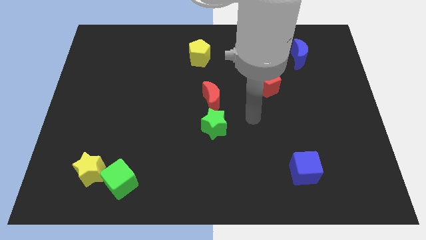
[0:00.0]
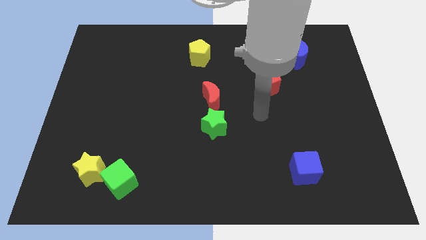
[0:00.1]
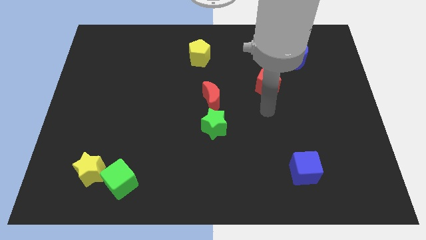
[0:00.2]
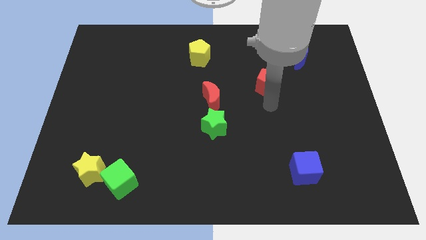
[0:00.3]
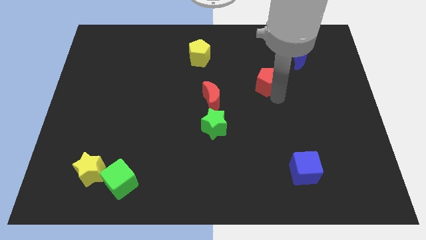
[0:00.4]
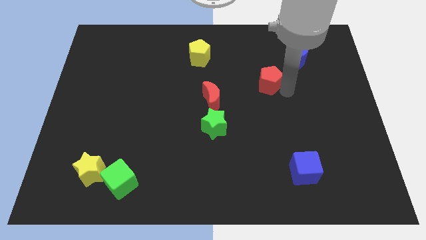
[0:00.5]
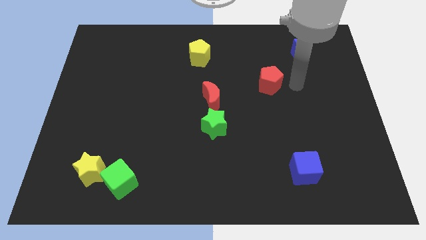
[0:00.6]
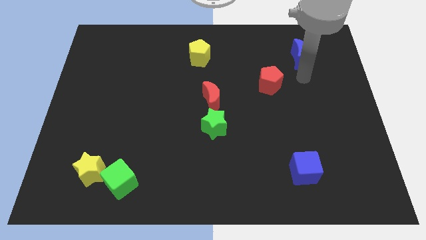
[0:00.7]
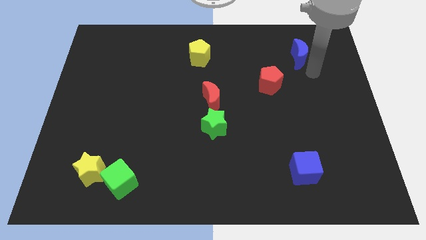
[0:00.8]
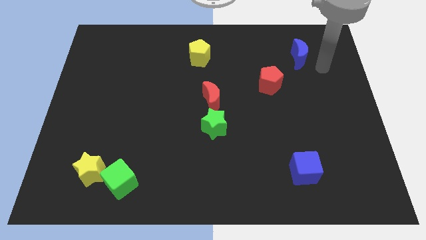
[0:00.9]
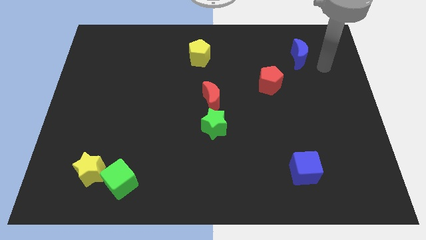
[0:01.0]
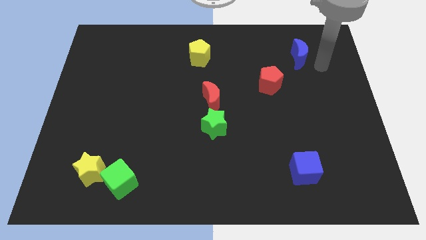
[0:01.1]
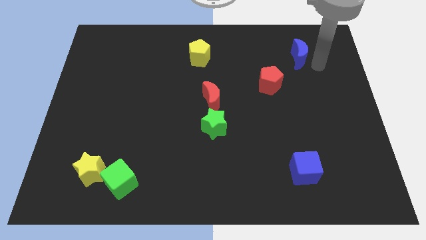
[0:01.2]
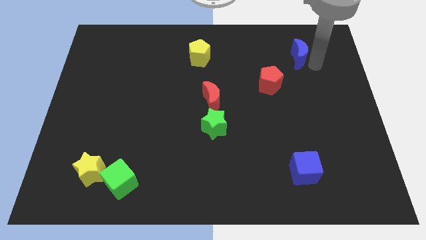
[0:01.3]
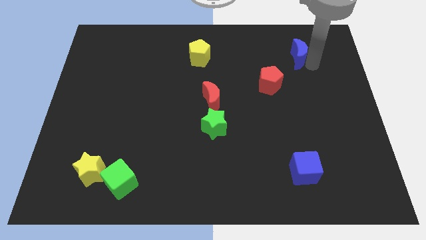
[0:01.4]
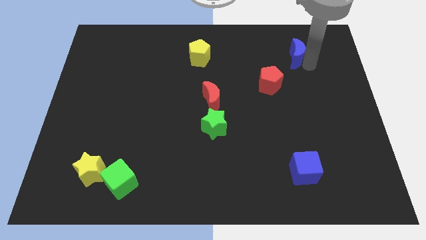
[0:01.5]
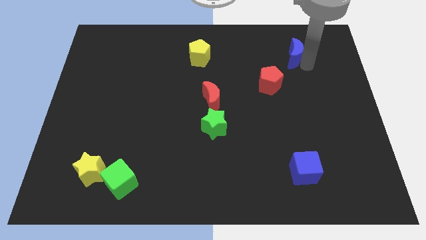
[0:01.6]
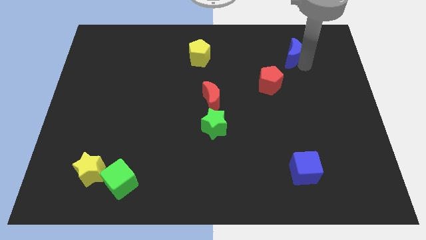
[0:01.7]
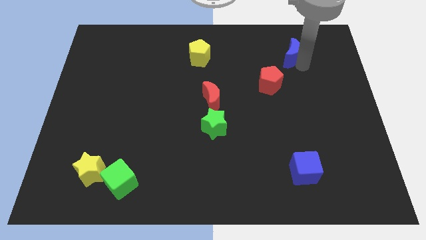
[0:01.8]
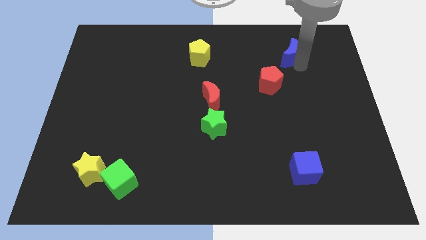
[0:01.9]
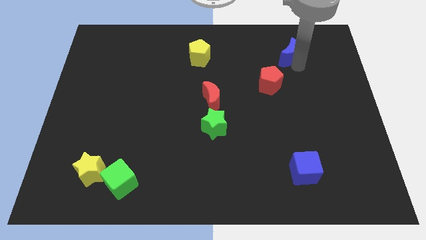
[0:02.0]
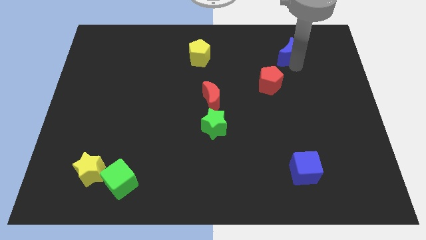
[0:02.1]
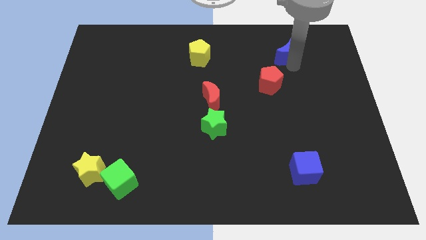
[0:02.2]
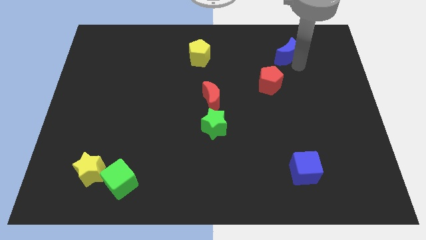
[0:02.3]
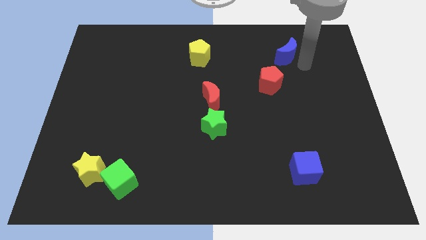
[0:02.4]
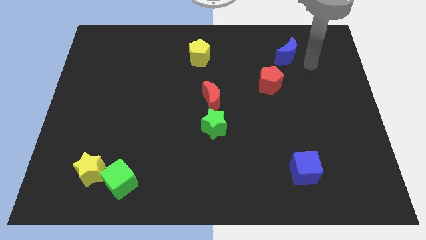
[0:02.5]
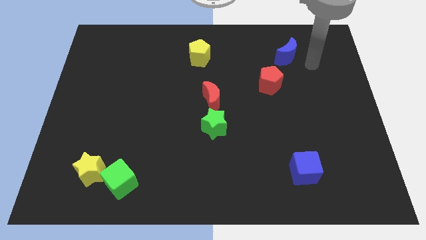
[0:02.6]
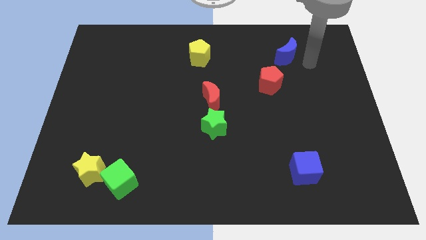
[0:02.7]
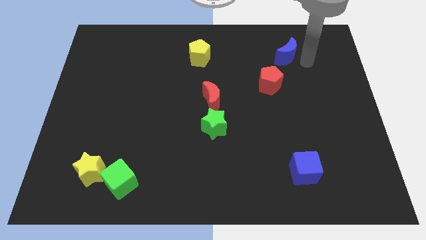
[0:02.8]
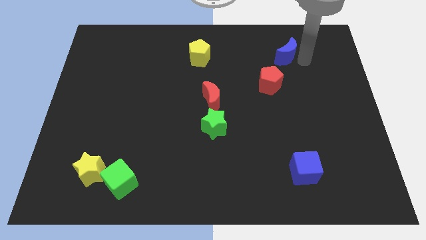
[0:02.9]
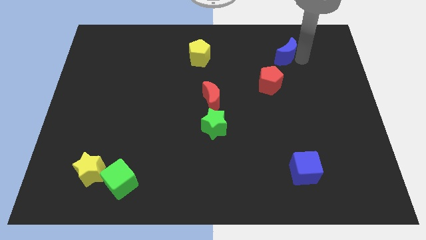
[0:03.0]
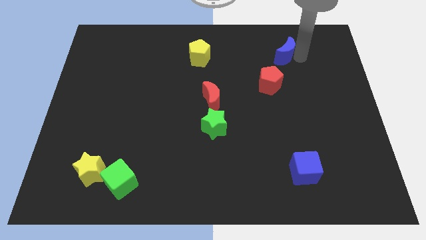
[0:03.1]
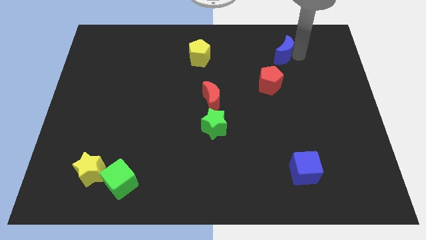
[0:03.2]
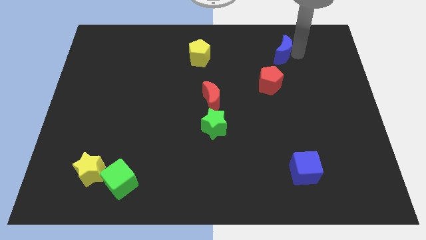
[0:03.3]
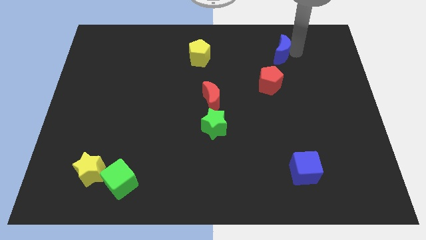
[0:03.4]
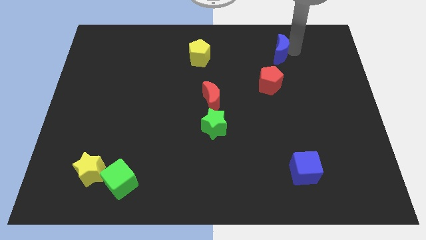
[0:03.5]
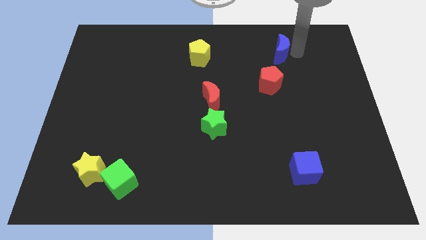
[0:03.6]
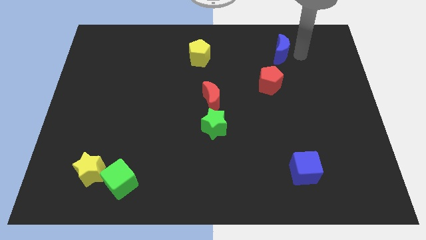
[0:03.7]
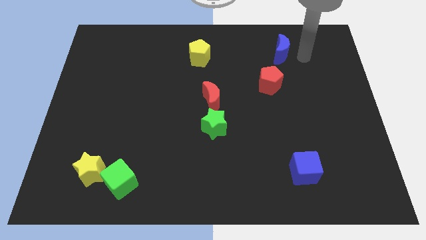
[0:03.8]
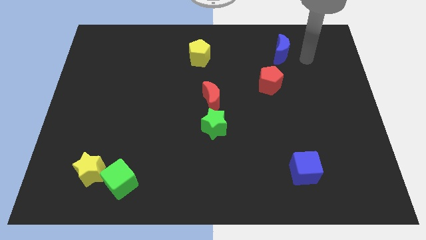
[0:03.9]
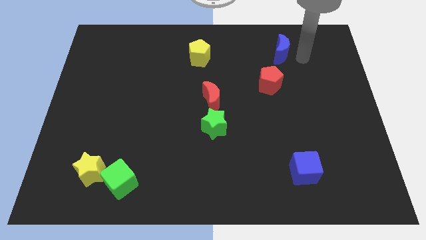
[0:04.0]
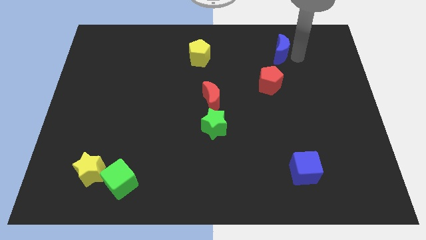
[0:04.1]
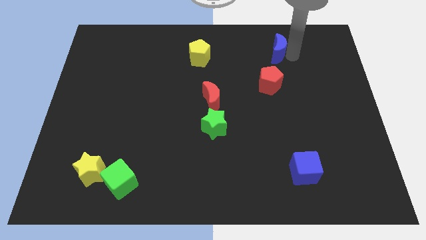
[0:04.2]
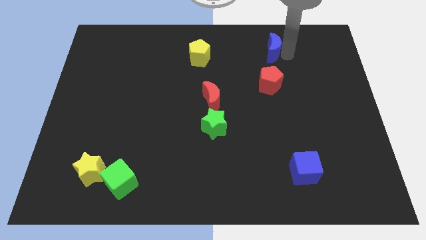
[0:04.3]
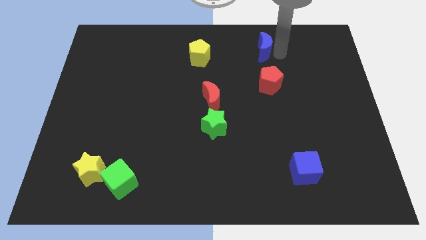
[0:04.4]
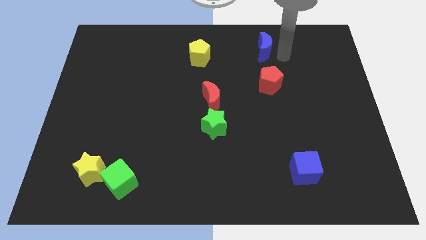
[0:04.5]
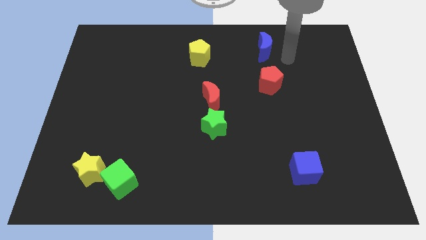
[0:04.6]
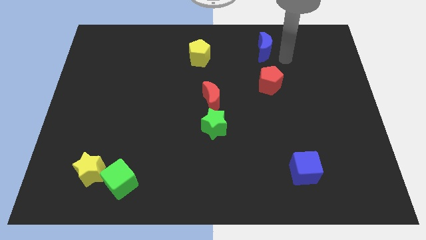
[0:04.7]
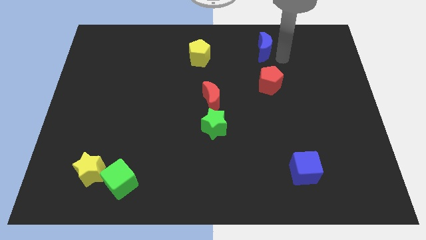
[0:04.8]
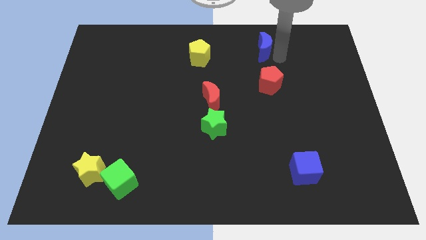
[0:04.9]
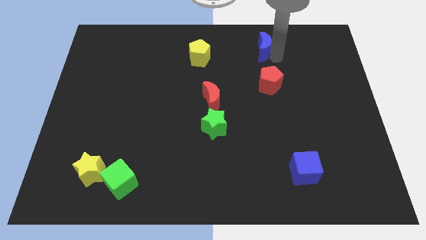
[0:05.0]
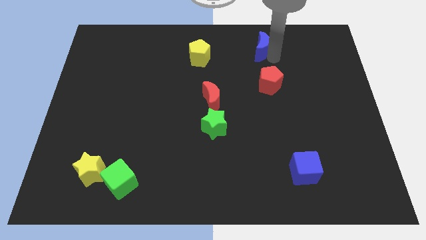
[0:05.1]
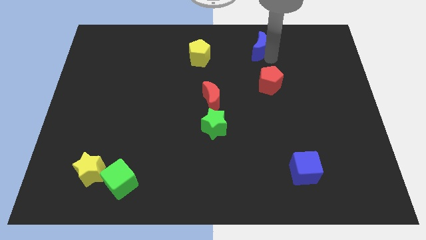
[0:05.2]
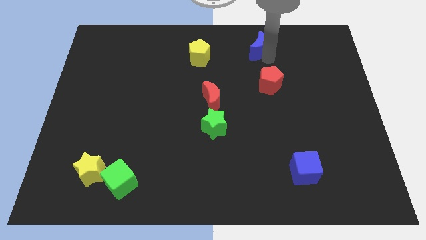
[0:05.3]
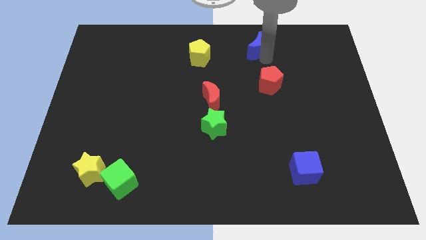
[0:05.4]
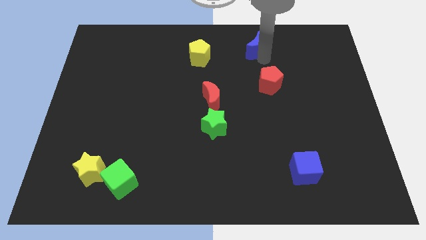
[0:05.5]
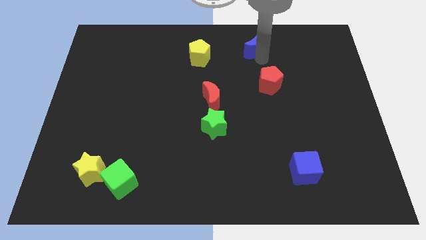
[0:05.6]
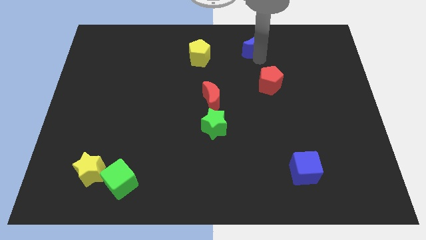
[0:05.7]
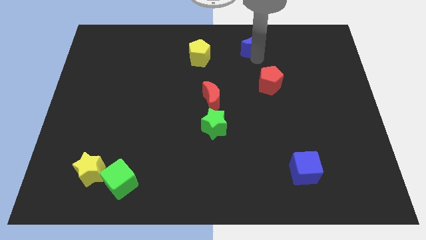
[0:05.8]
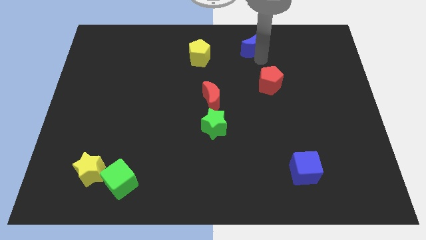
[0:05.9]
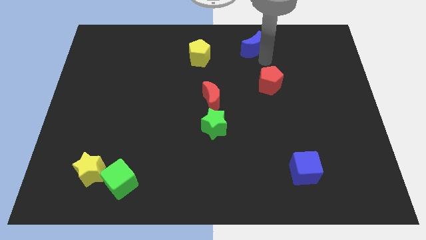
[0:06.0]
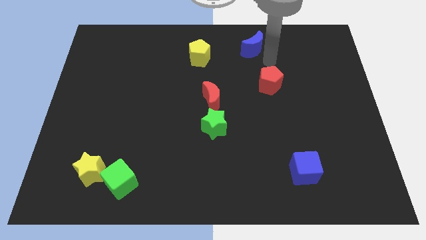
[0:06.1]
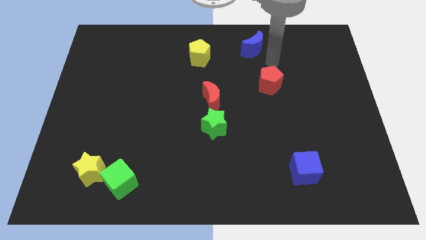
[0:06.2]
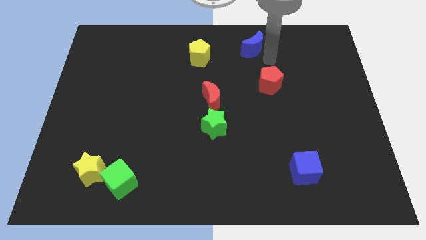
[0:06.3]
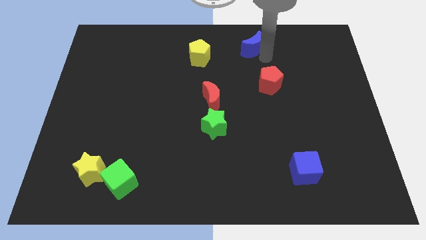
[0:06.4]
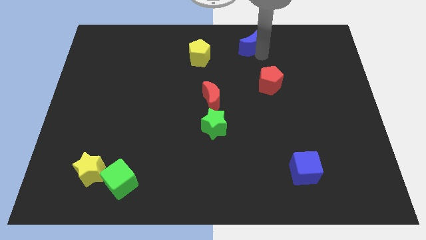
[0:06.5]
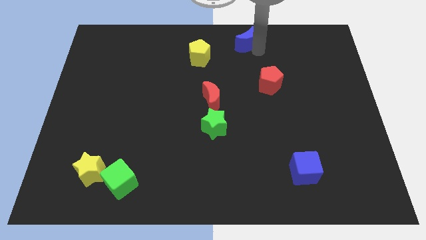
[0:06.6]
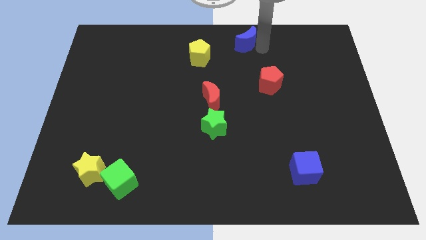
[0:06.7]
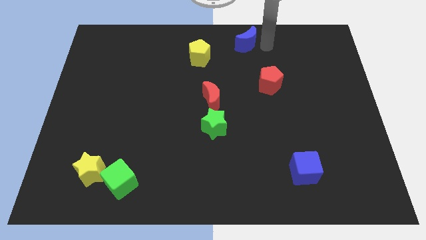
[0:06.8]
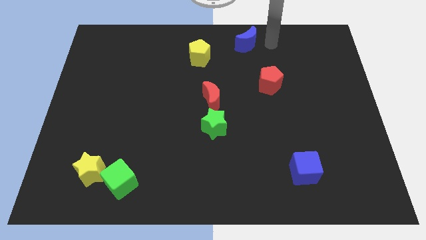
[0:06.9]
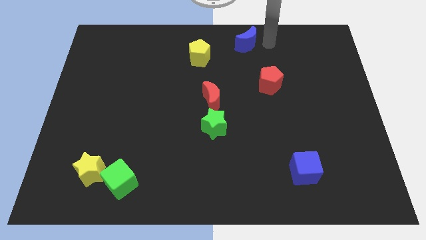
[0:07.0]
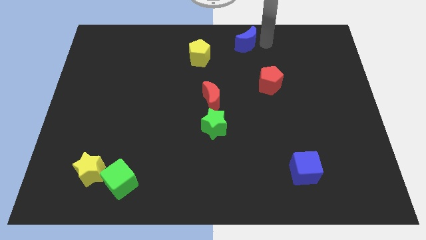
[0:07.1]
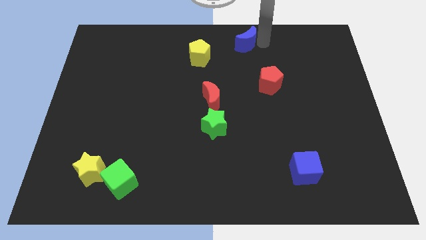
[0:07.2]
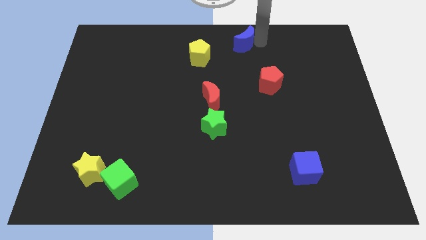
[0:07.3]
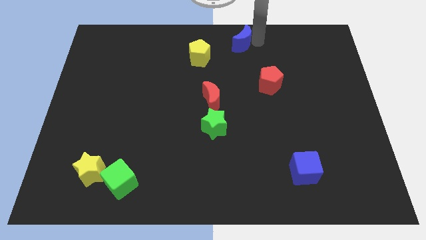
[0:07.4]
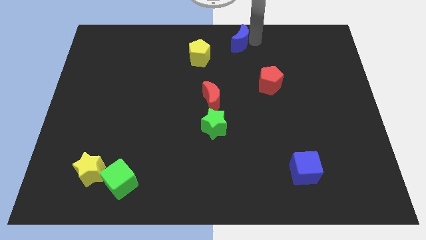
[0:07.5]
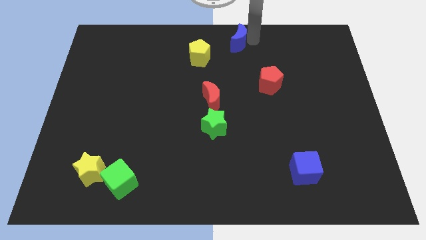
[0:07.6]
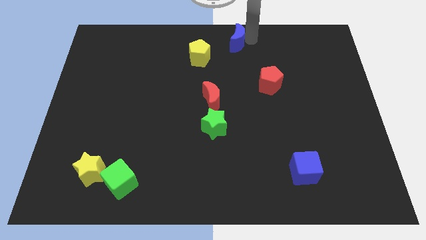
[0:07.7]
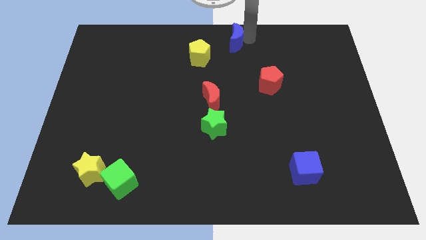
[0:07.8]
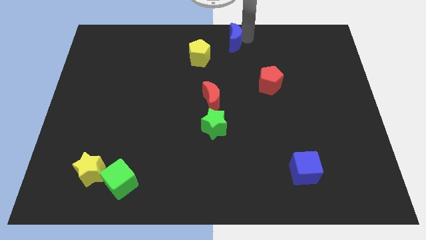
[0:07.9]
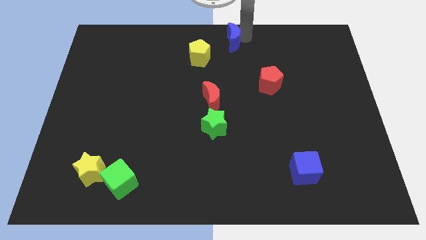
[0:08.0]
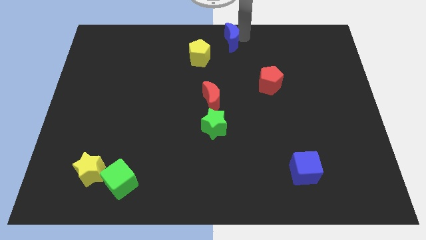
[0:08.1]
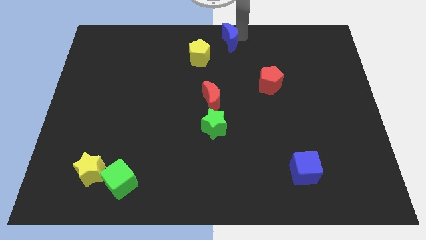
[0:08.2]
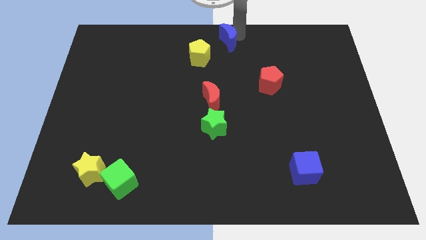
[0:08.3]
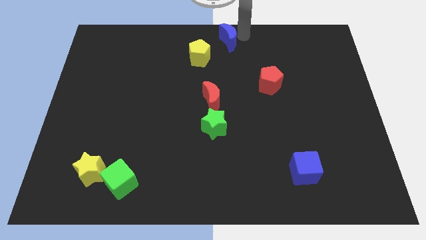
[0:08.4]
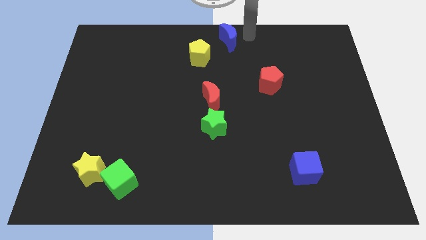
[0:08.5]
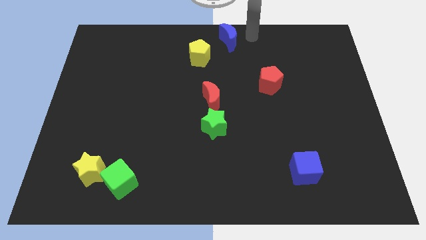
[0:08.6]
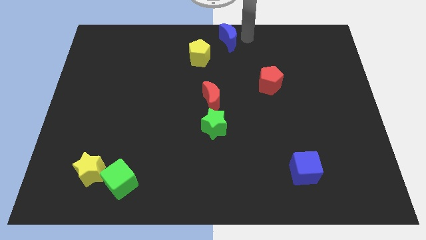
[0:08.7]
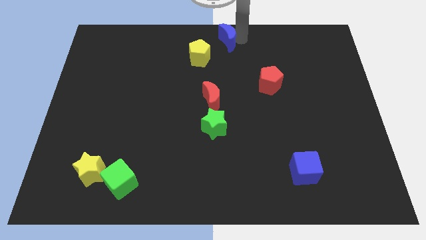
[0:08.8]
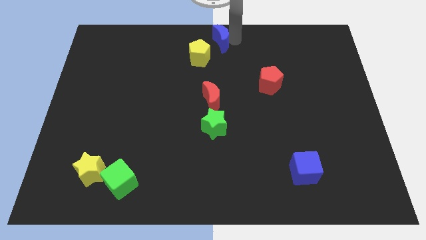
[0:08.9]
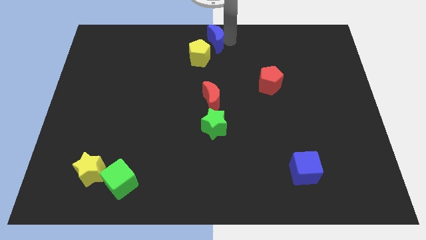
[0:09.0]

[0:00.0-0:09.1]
slide the blue moon left
